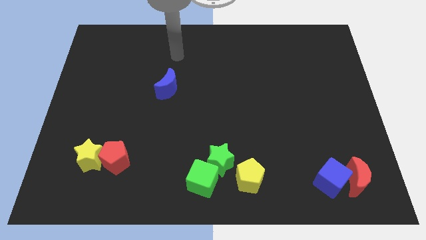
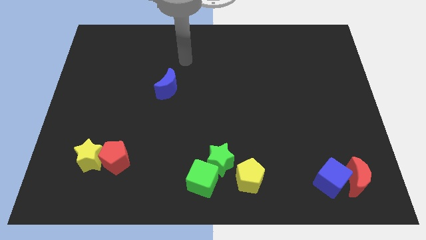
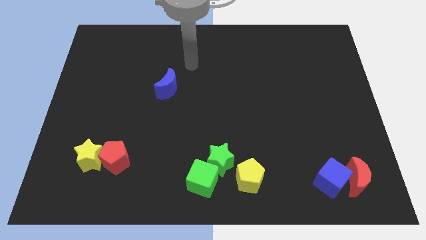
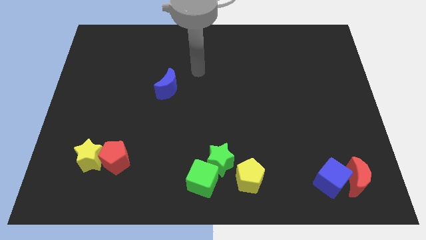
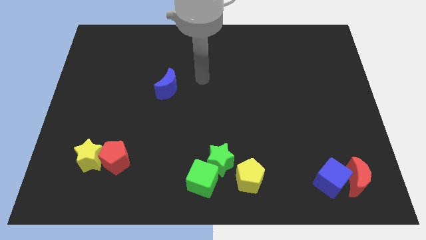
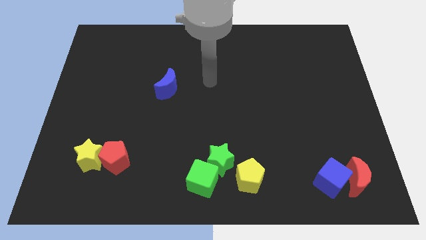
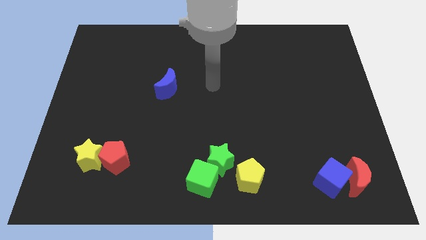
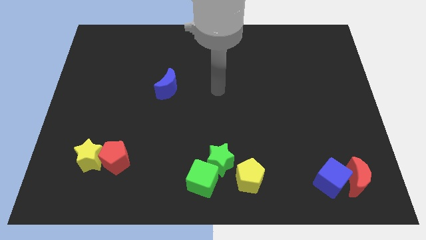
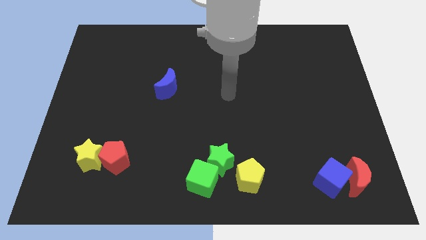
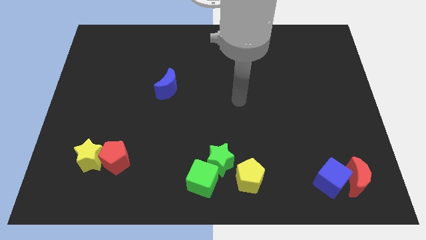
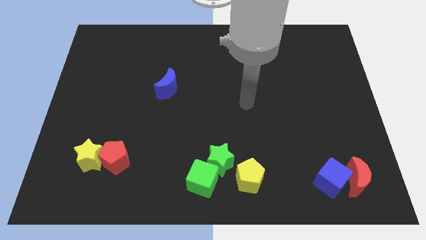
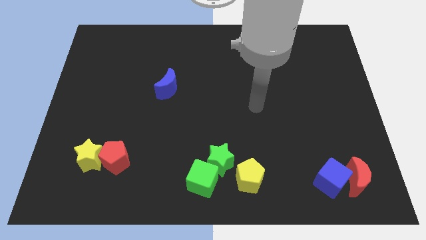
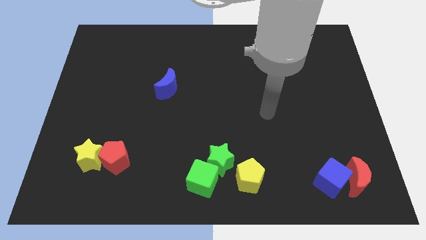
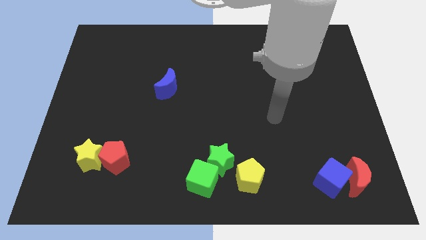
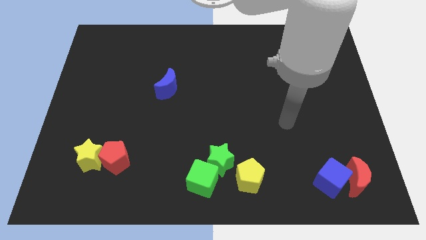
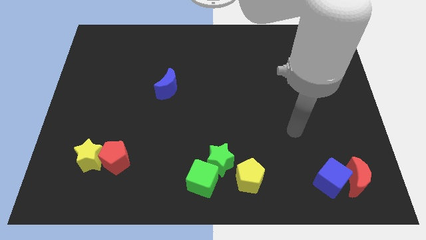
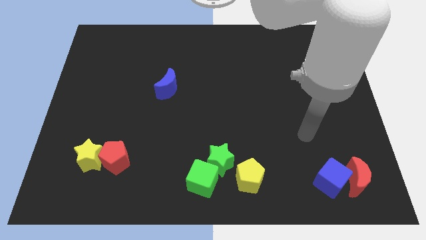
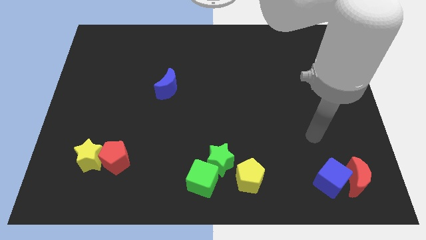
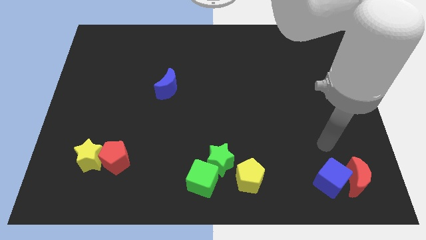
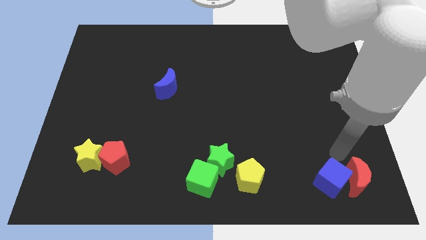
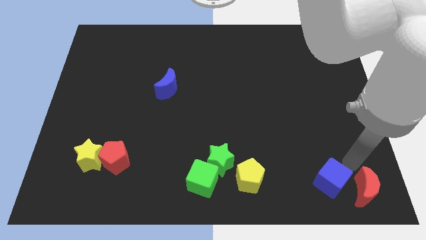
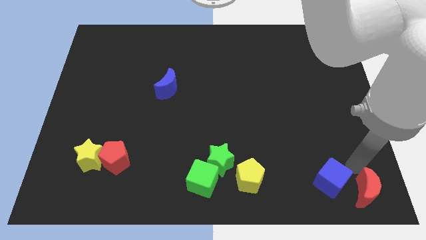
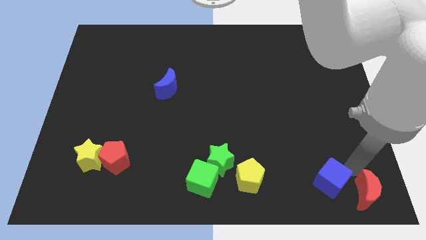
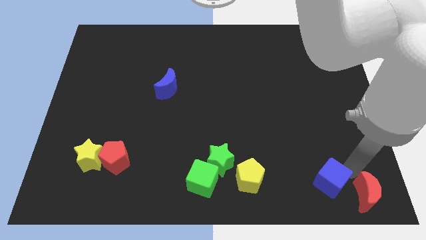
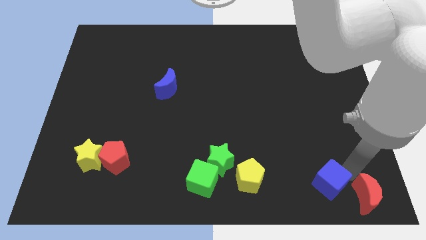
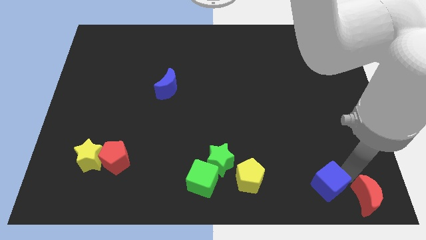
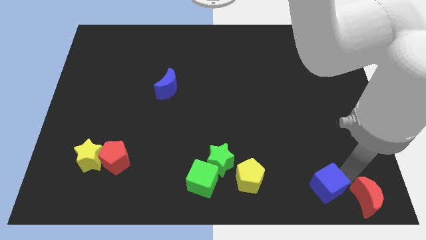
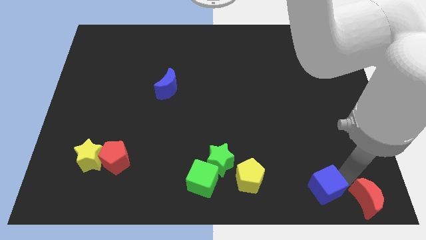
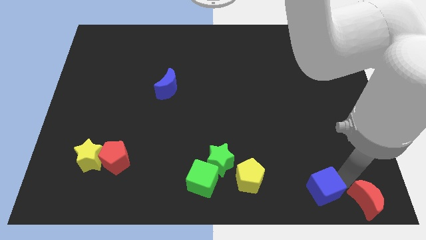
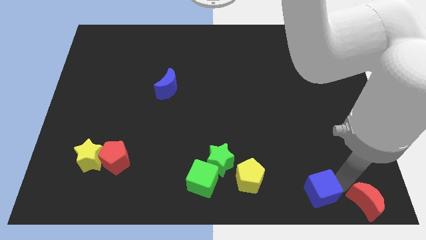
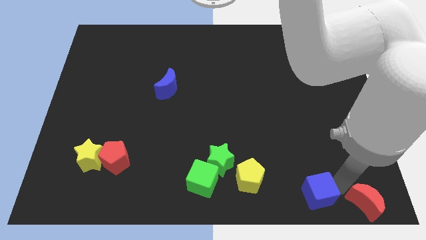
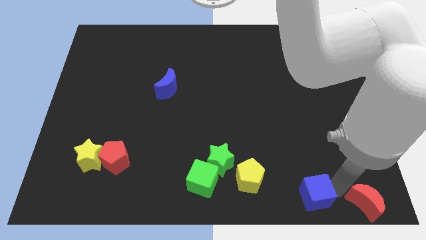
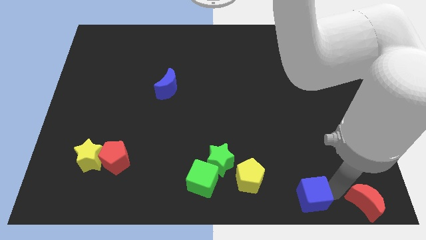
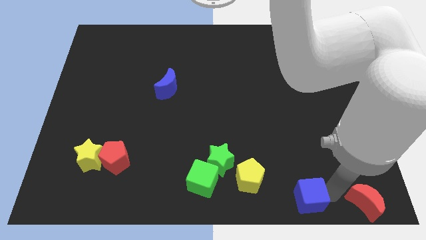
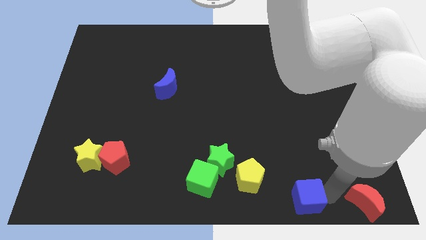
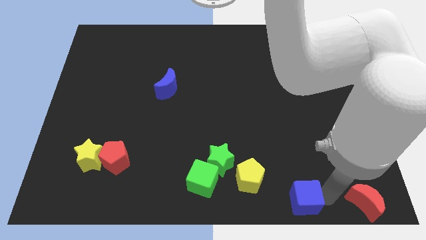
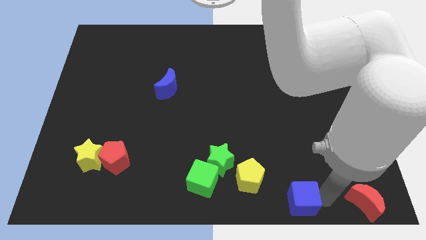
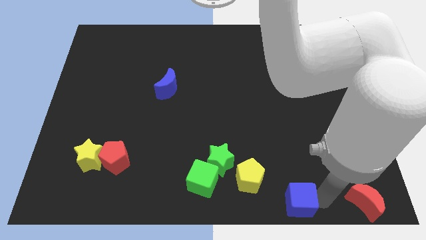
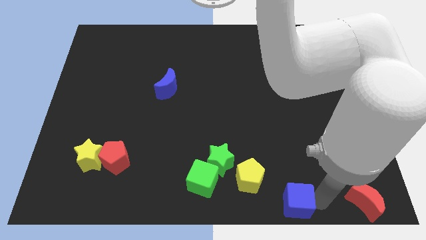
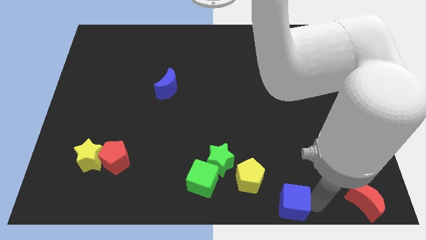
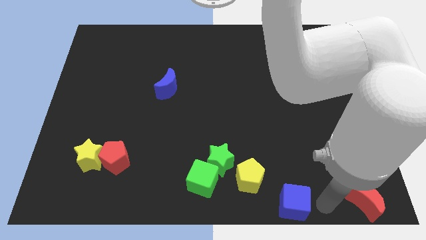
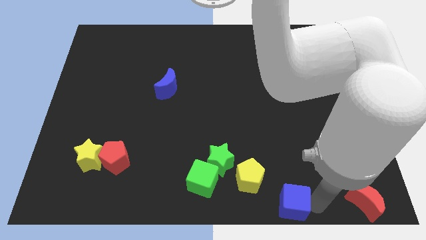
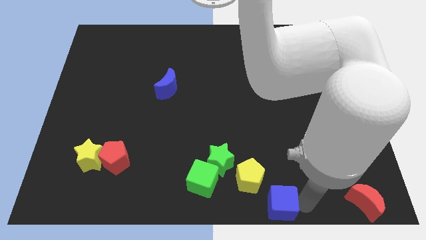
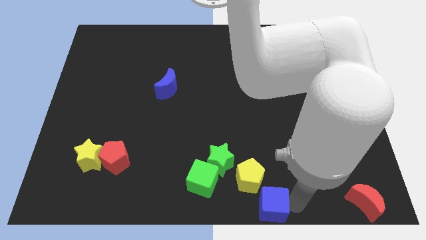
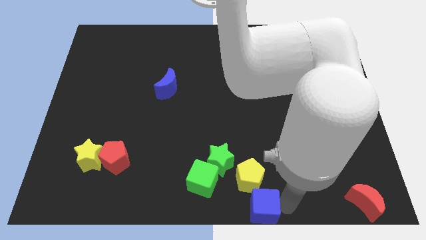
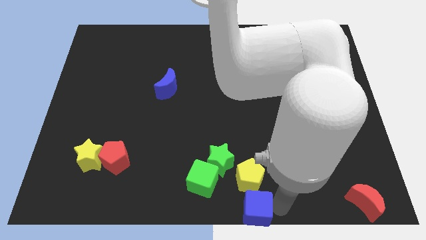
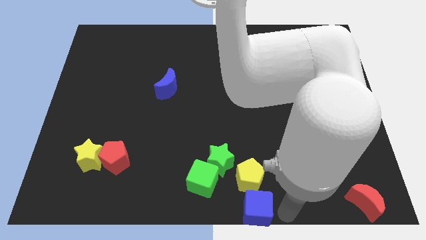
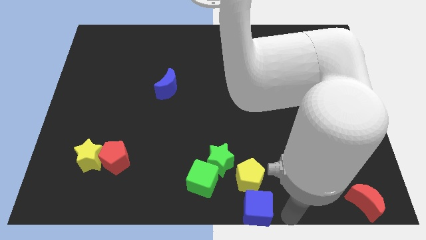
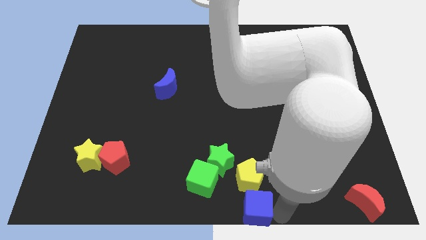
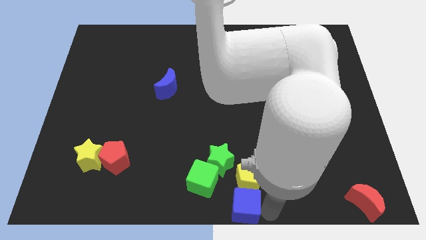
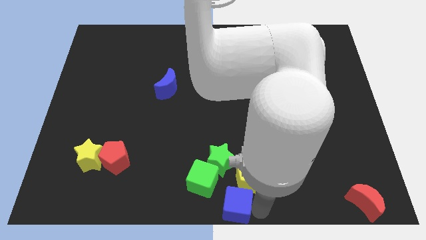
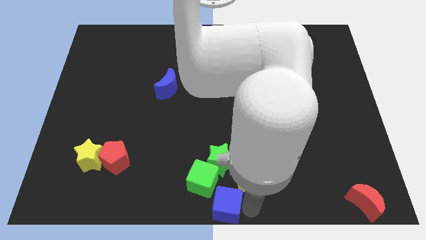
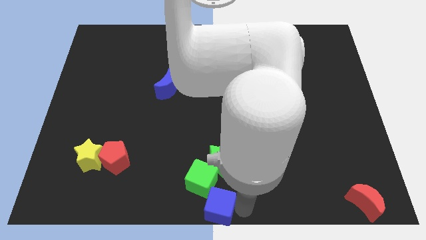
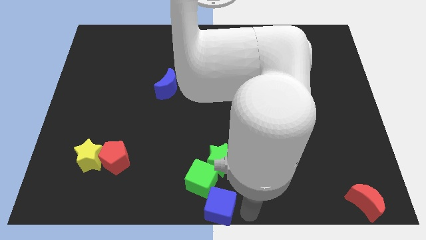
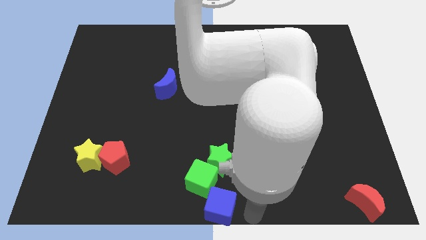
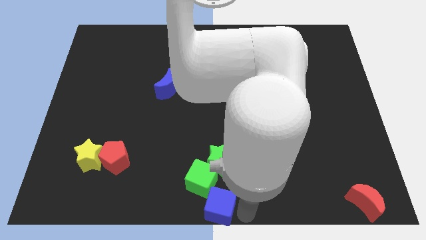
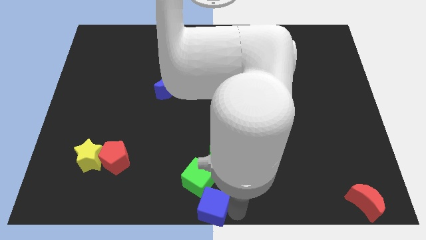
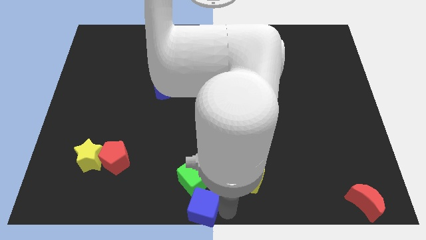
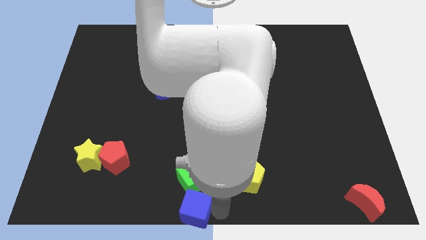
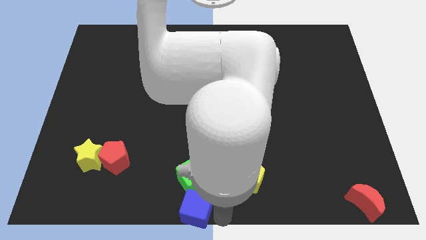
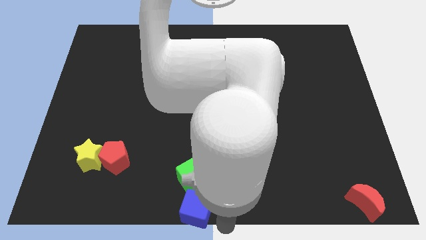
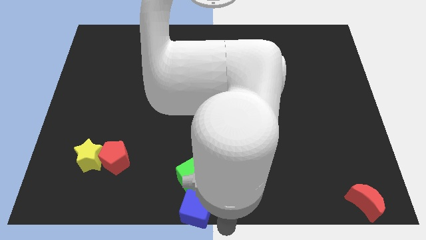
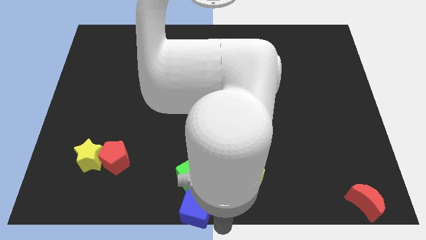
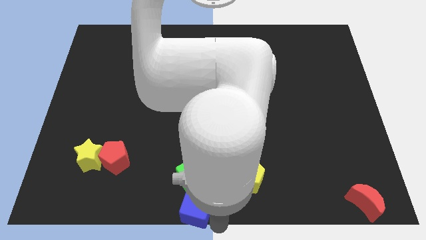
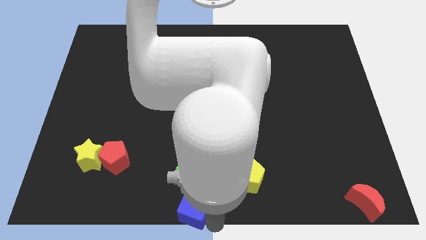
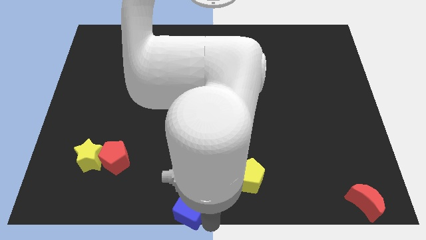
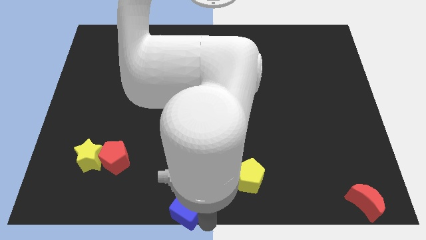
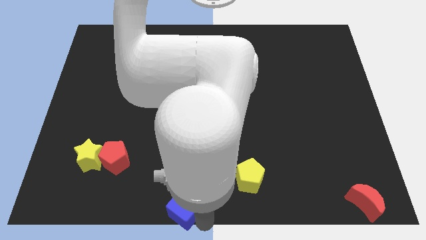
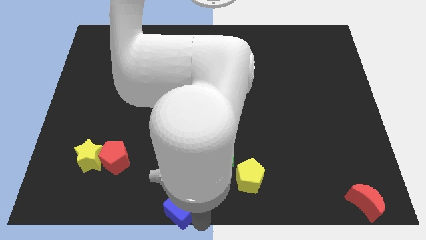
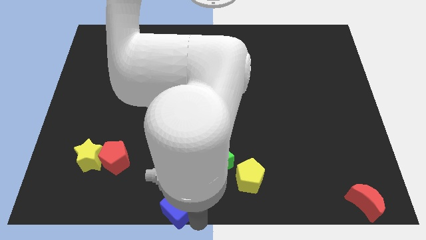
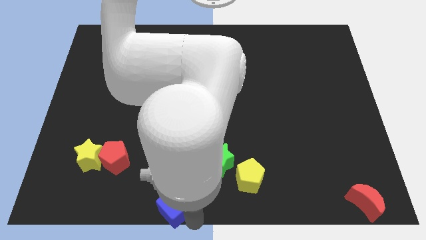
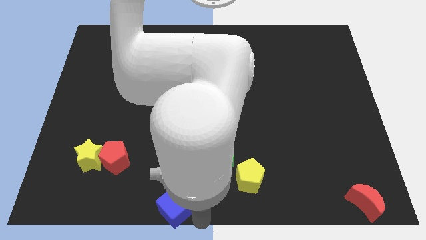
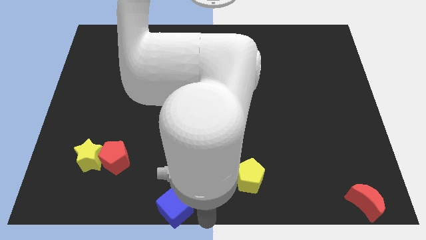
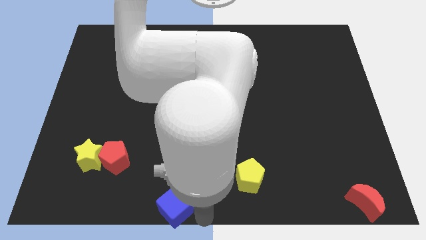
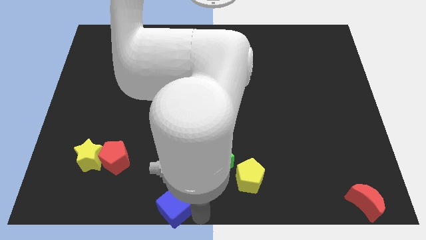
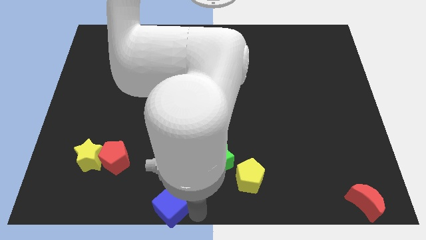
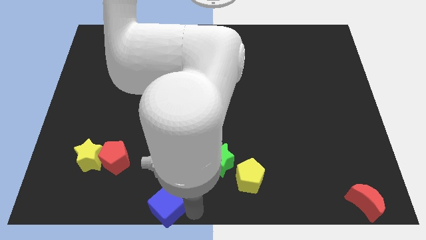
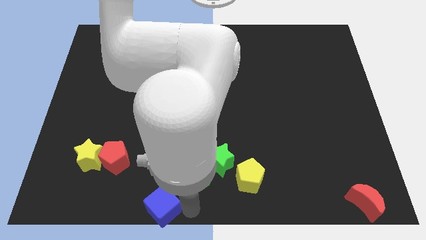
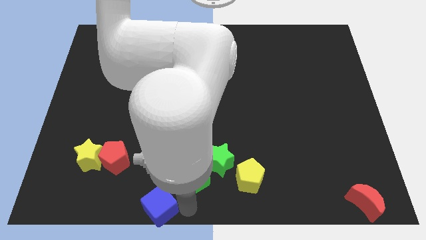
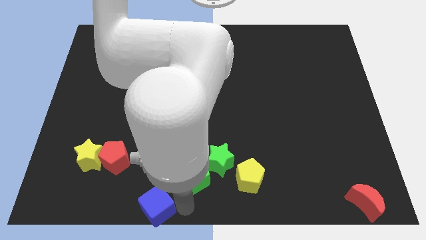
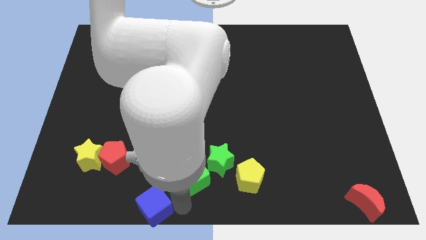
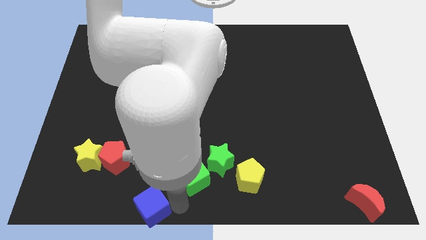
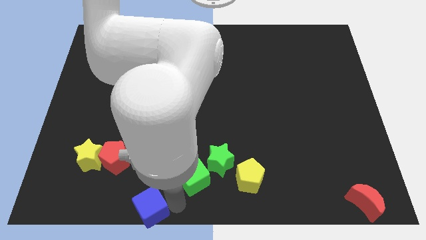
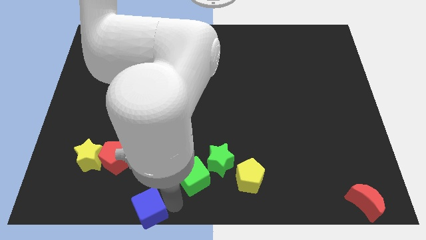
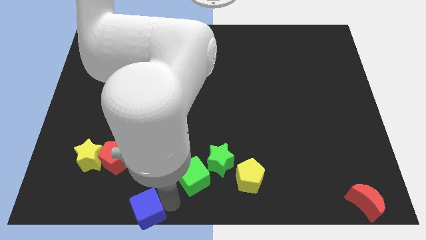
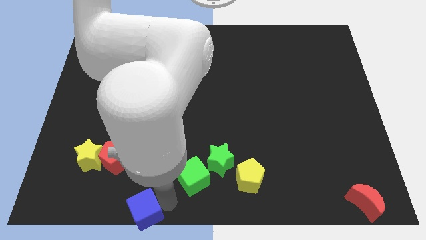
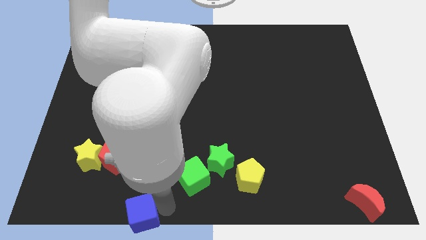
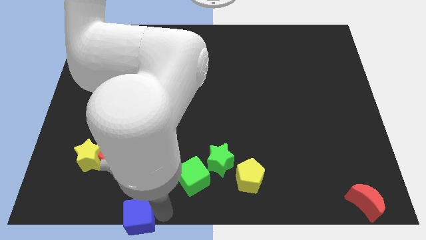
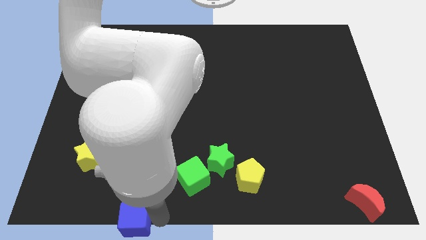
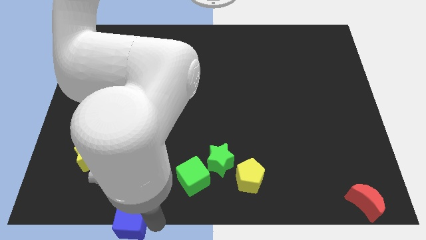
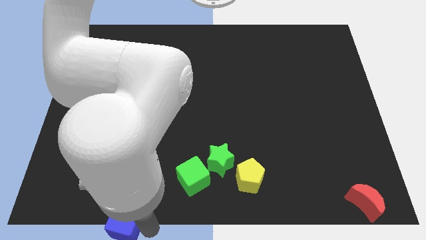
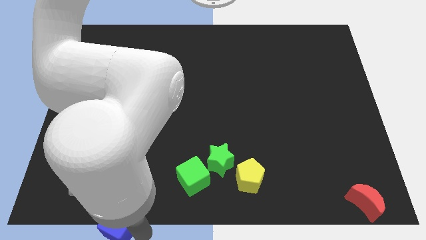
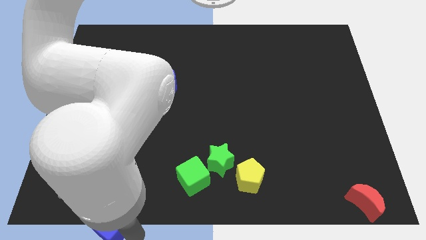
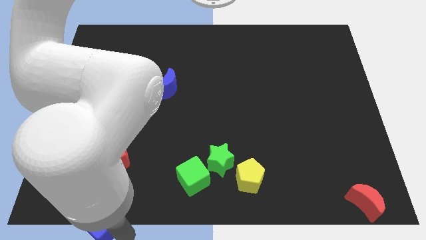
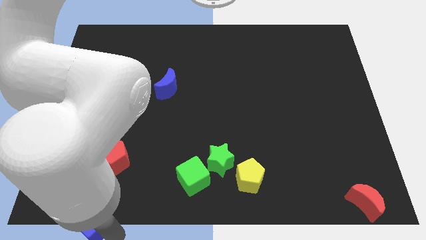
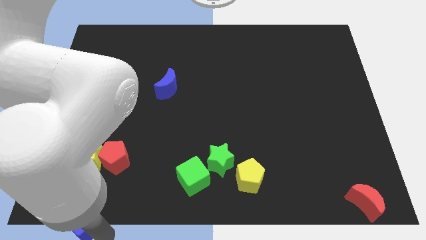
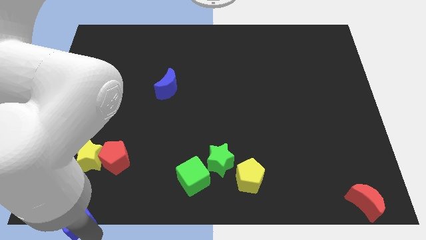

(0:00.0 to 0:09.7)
slide the blue cube to the lower left corner
